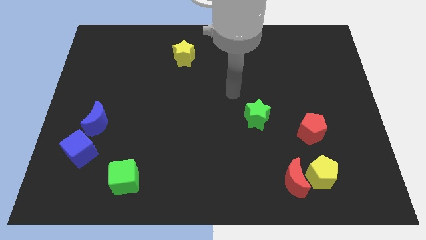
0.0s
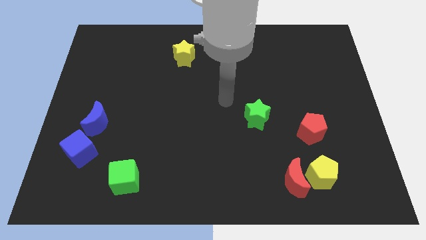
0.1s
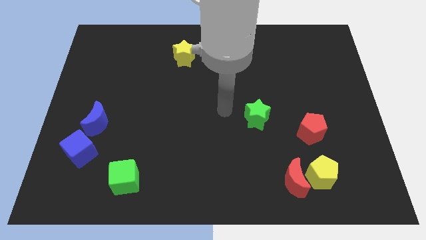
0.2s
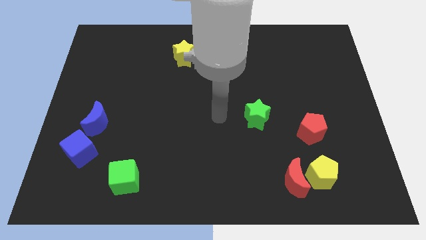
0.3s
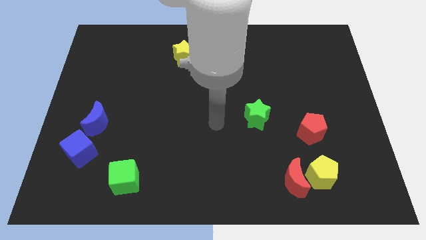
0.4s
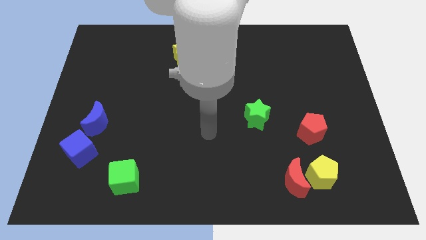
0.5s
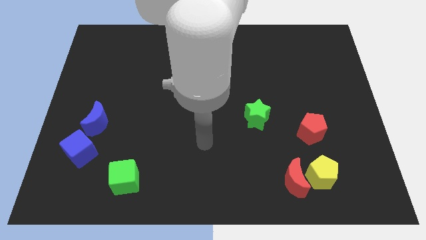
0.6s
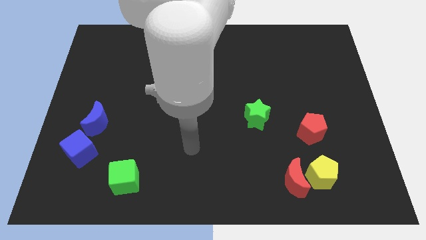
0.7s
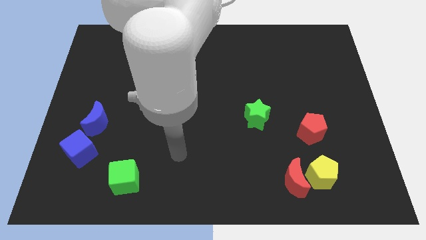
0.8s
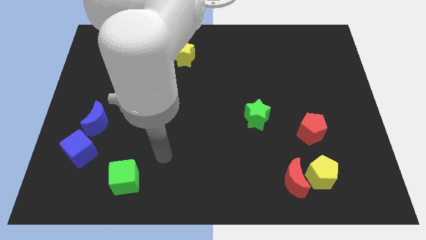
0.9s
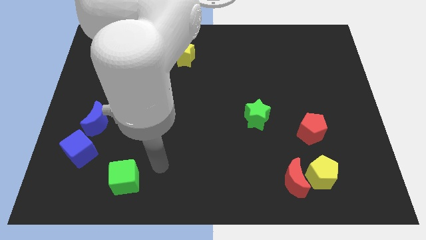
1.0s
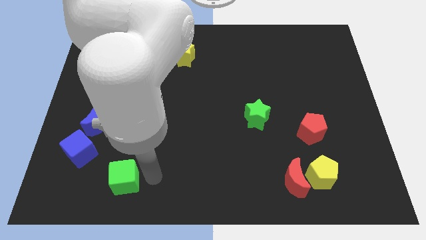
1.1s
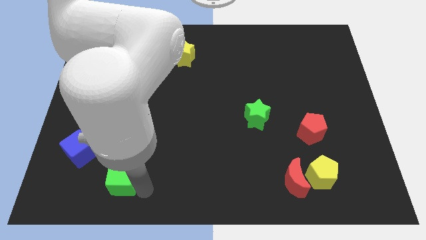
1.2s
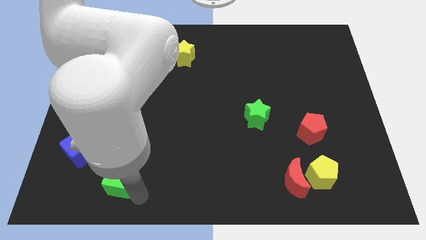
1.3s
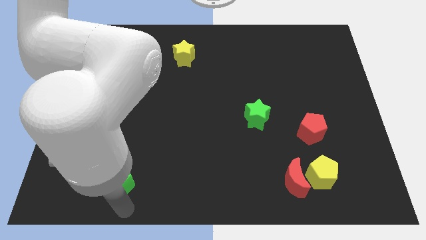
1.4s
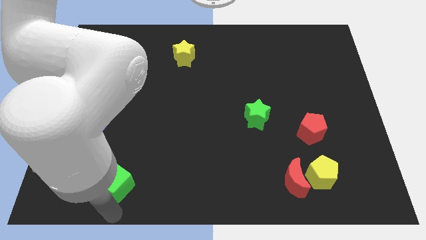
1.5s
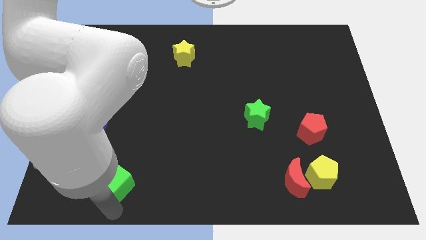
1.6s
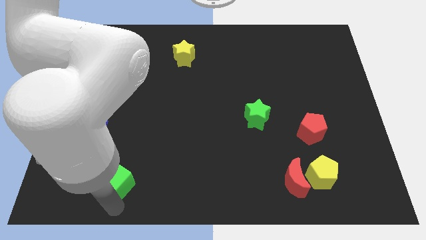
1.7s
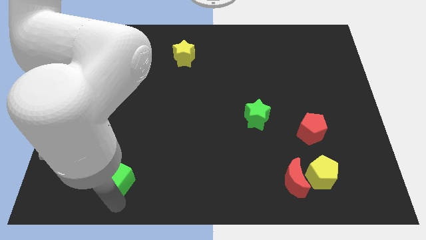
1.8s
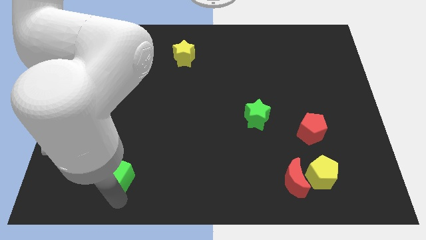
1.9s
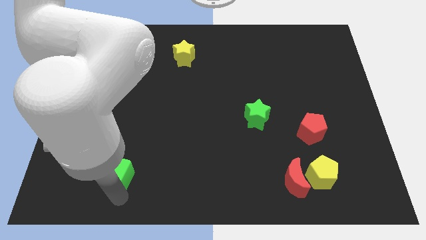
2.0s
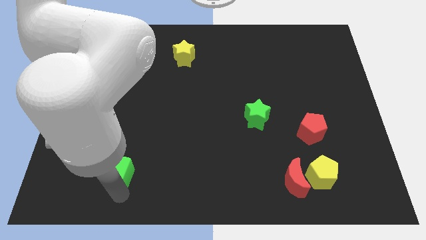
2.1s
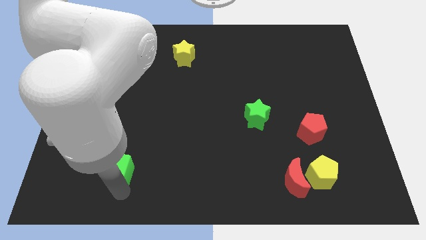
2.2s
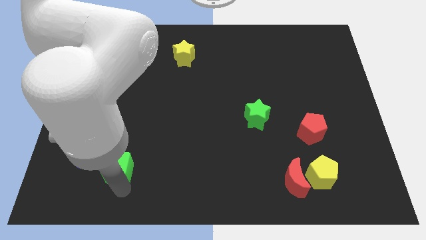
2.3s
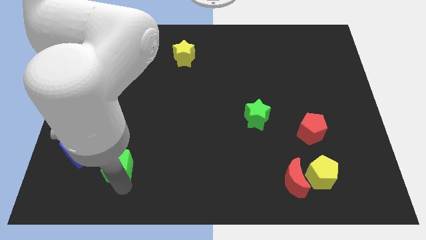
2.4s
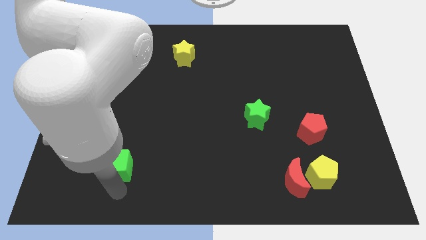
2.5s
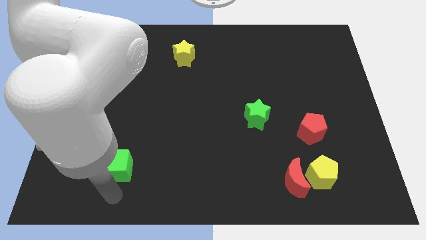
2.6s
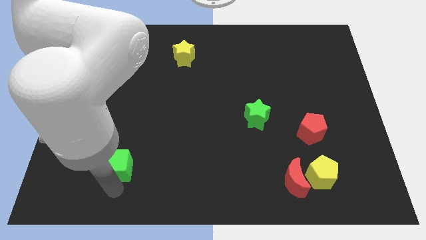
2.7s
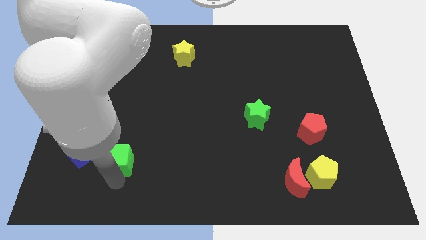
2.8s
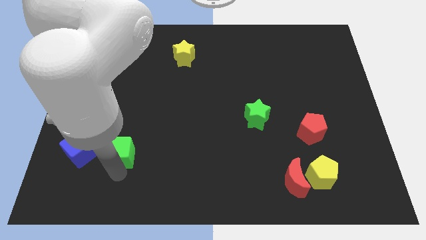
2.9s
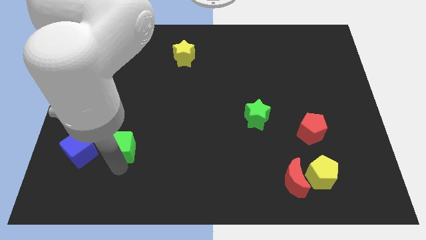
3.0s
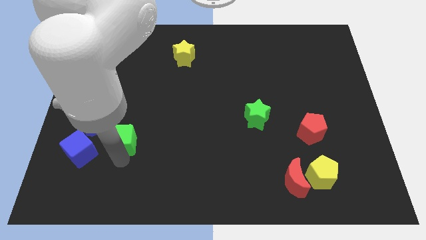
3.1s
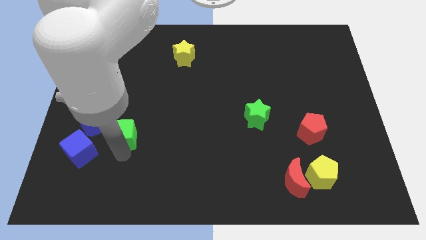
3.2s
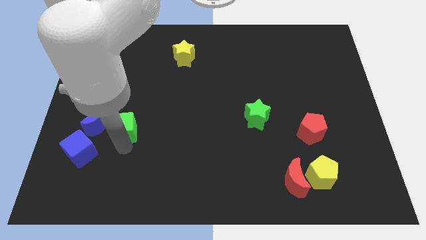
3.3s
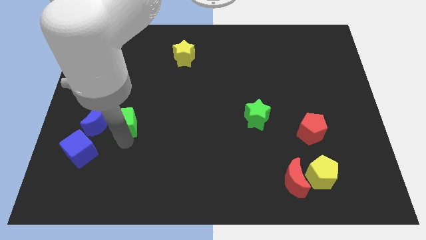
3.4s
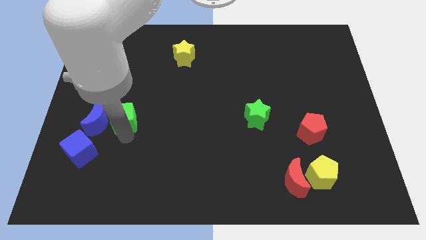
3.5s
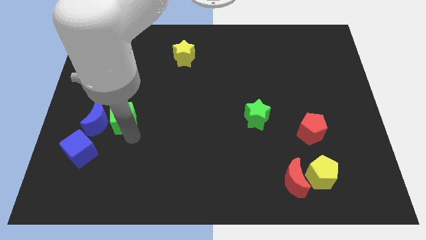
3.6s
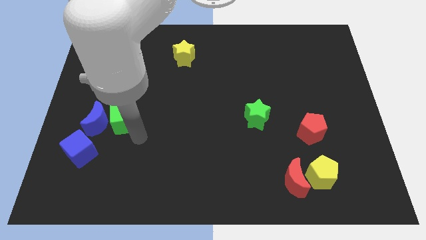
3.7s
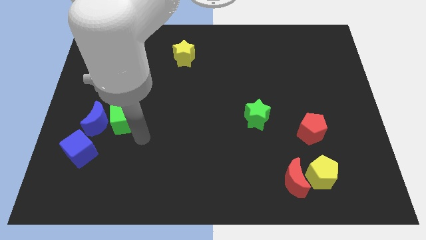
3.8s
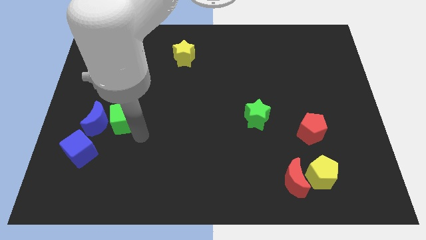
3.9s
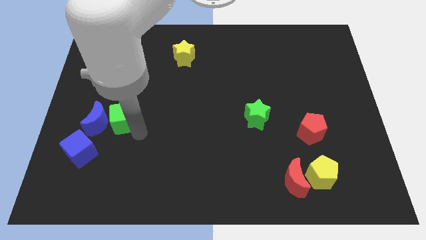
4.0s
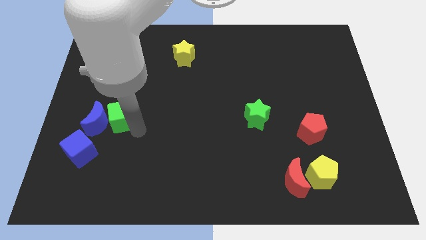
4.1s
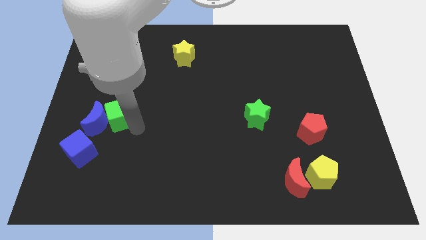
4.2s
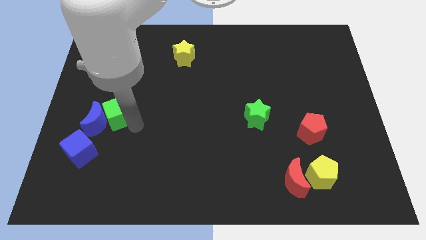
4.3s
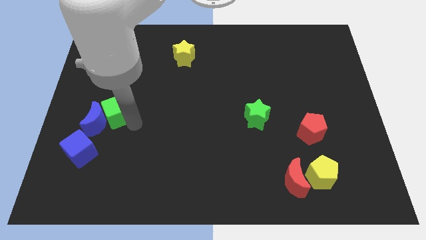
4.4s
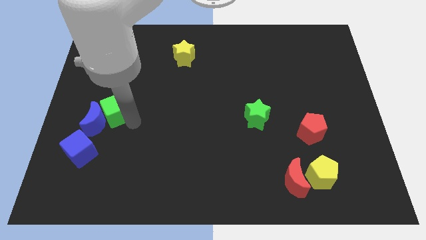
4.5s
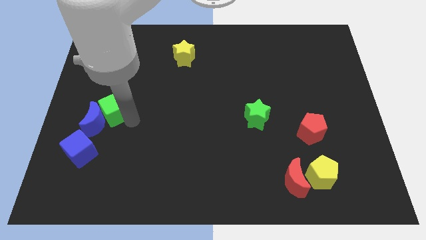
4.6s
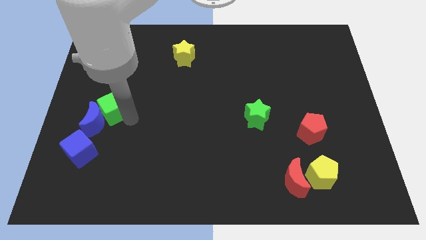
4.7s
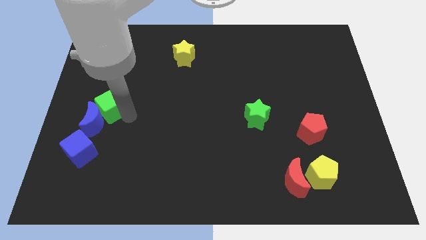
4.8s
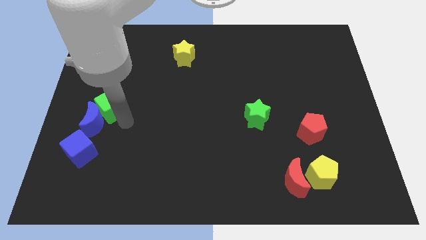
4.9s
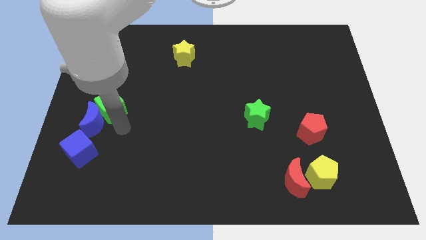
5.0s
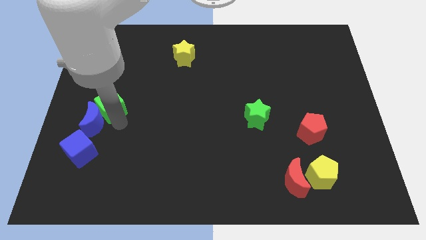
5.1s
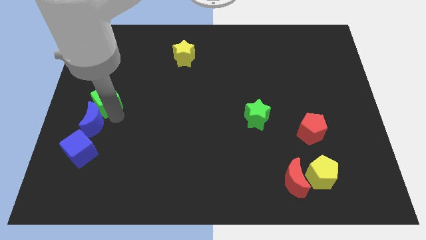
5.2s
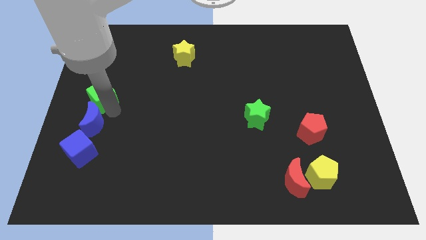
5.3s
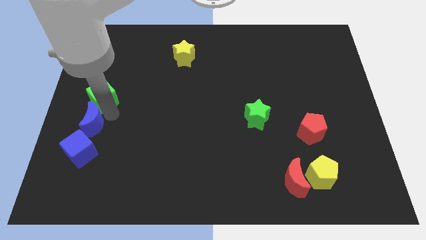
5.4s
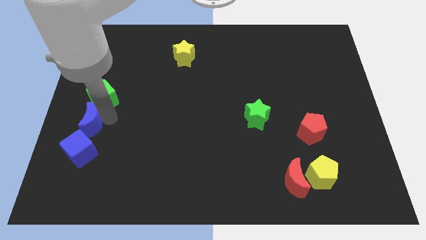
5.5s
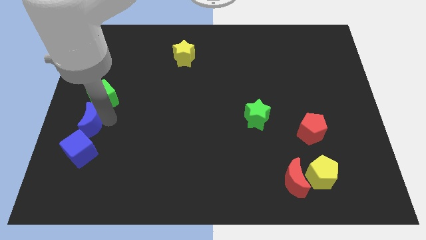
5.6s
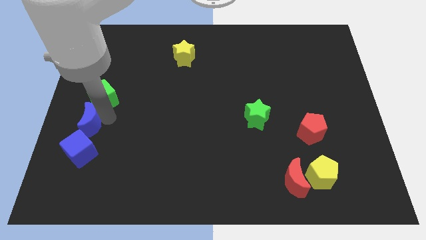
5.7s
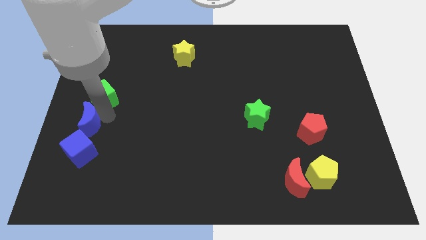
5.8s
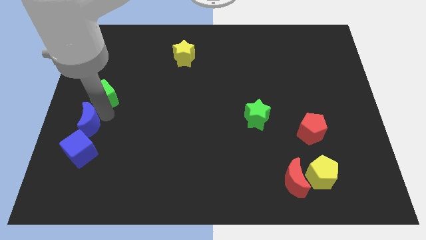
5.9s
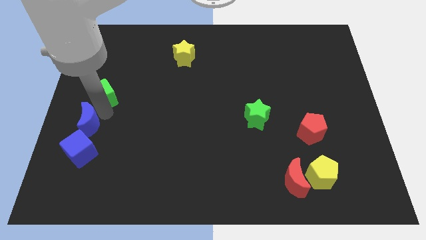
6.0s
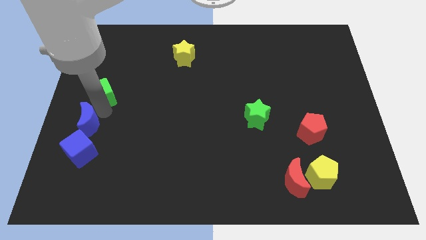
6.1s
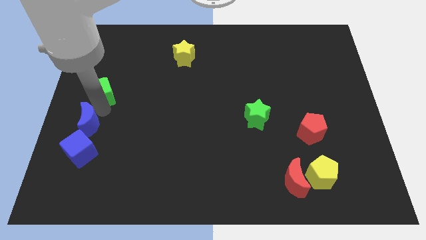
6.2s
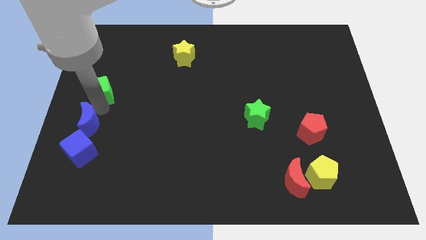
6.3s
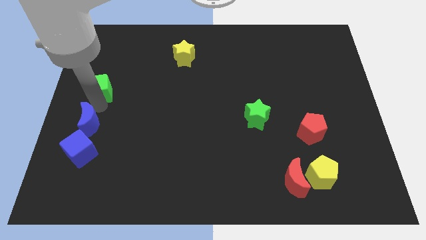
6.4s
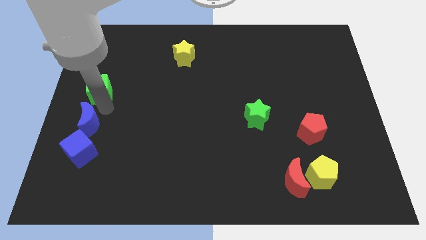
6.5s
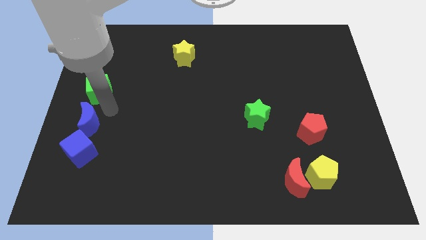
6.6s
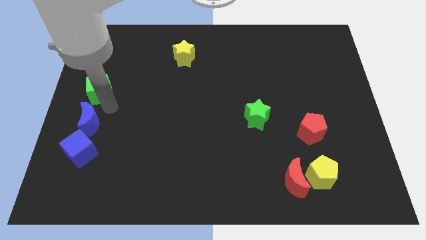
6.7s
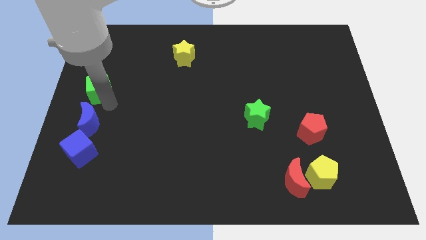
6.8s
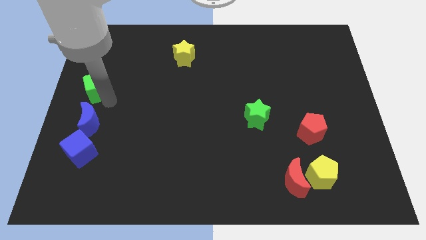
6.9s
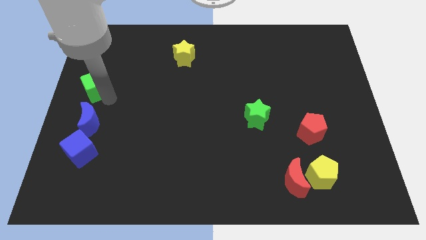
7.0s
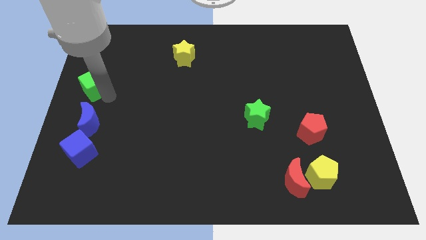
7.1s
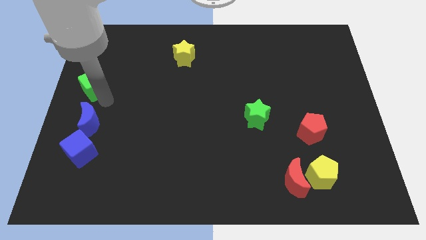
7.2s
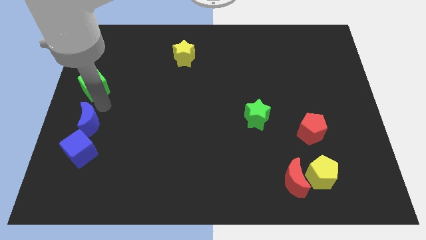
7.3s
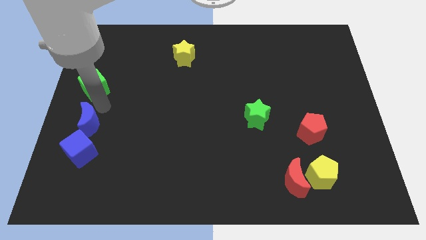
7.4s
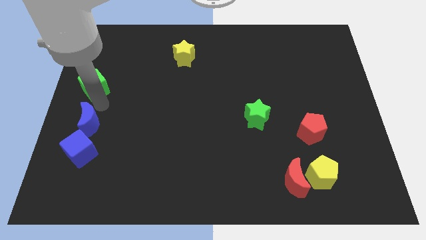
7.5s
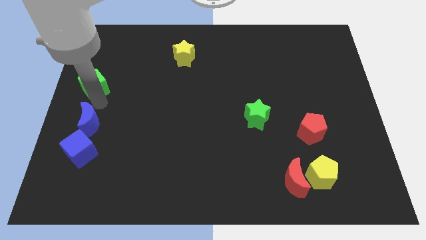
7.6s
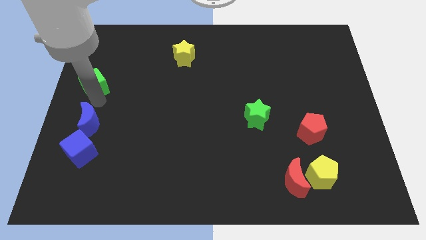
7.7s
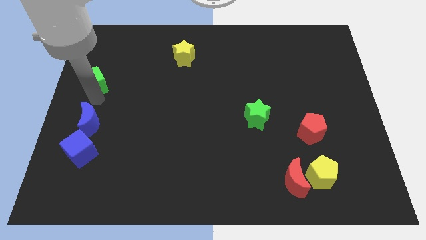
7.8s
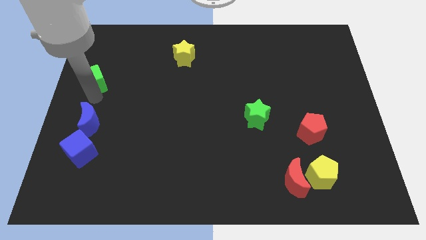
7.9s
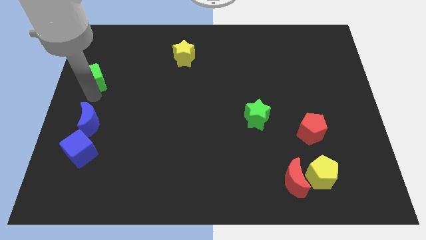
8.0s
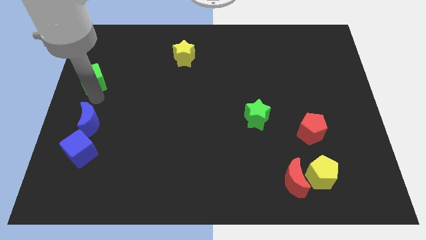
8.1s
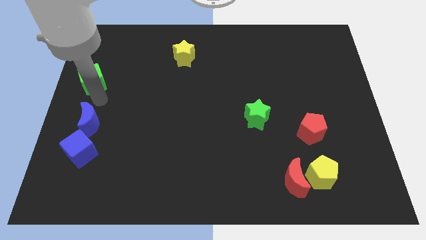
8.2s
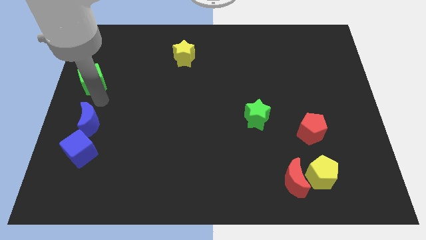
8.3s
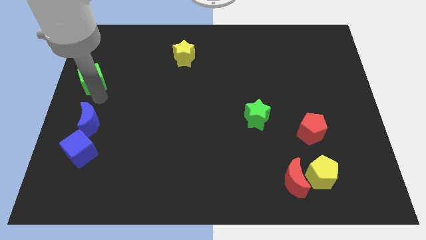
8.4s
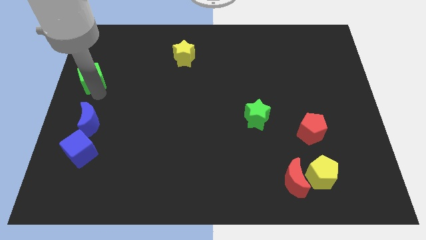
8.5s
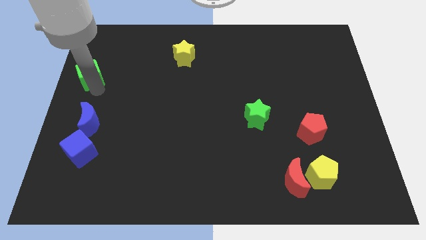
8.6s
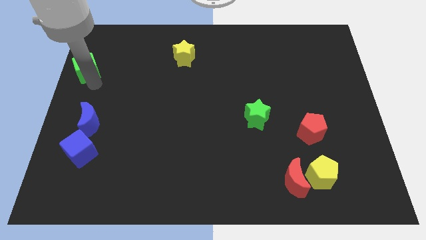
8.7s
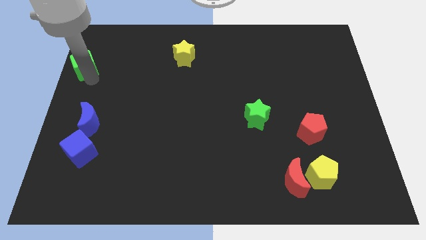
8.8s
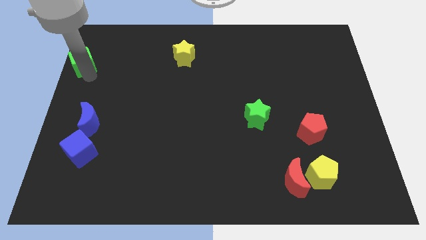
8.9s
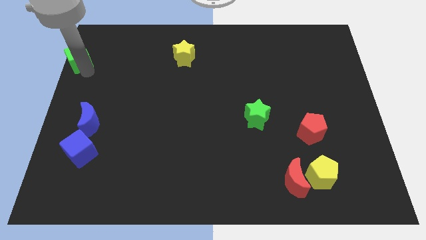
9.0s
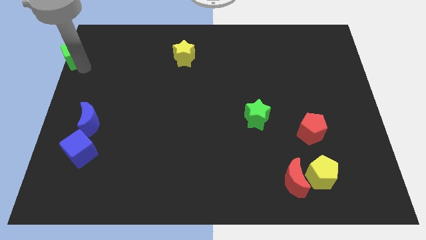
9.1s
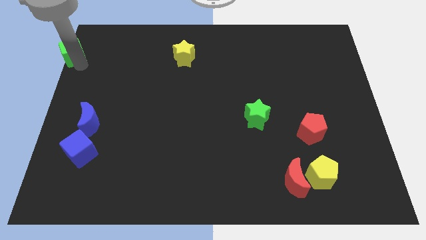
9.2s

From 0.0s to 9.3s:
push the green cube to the top left of the board
